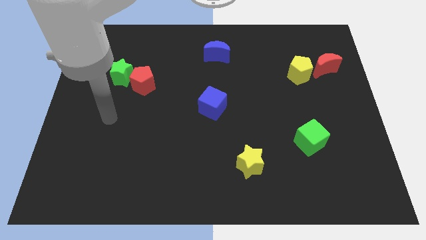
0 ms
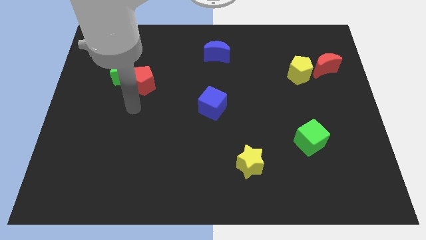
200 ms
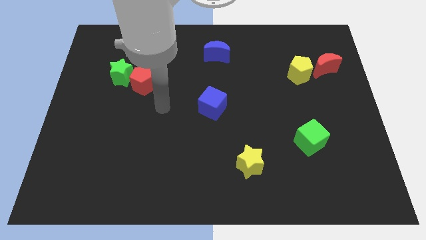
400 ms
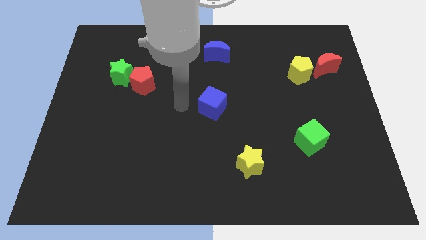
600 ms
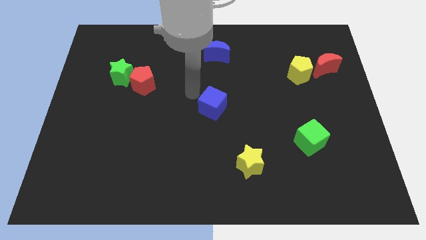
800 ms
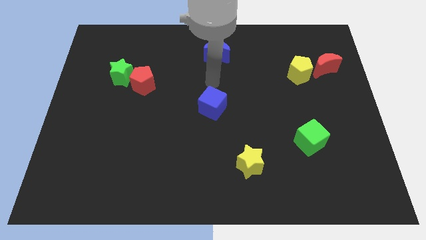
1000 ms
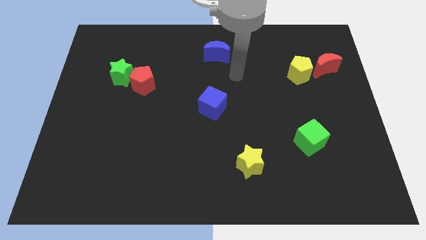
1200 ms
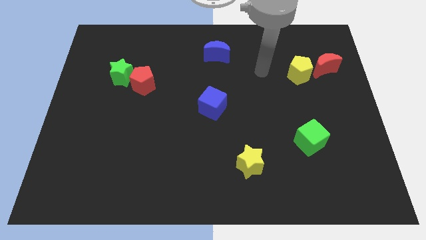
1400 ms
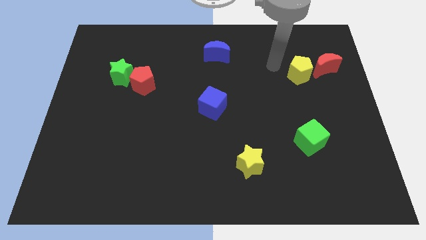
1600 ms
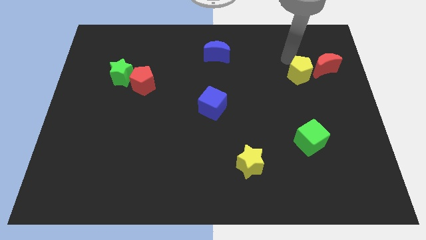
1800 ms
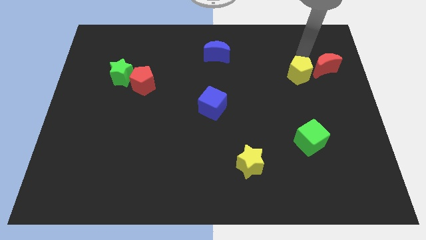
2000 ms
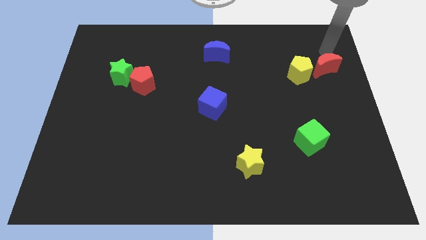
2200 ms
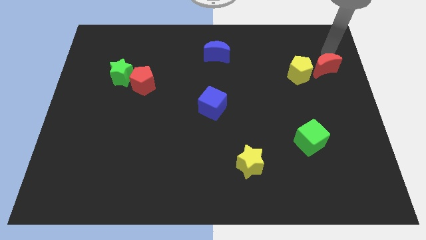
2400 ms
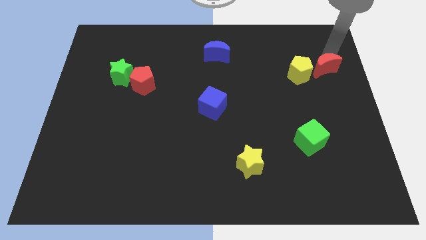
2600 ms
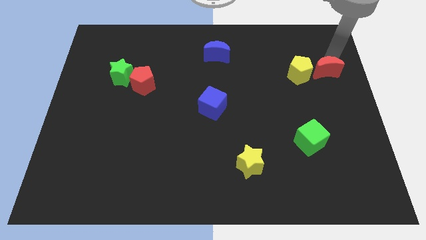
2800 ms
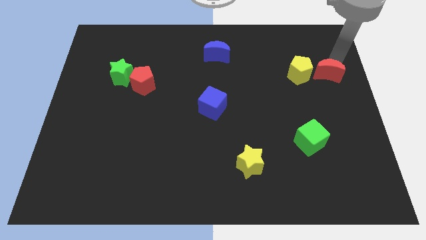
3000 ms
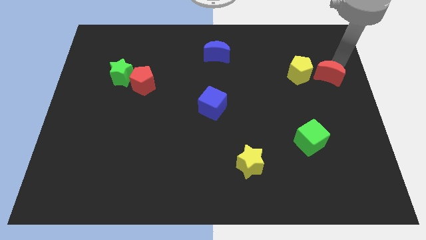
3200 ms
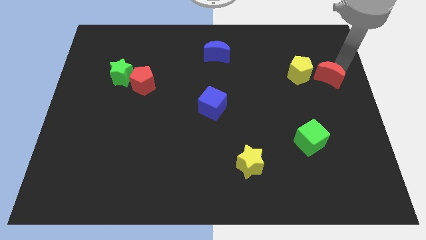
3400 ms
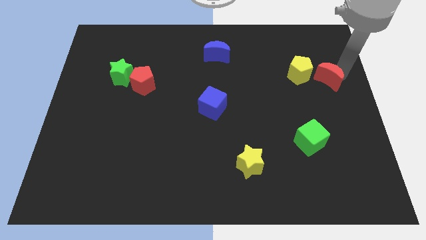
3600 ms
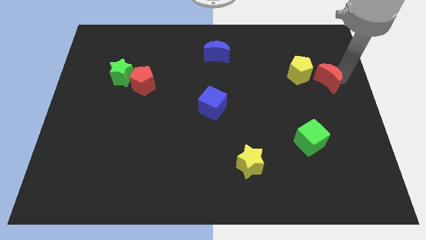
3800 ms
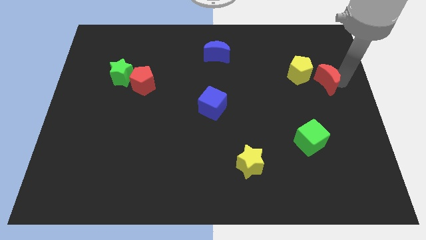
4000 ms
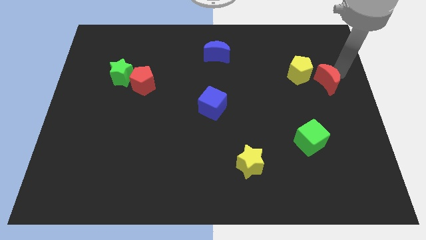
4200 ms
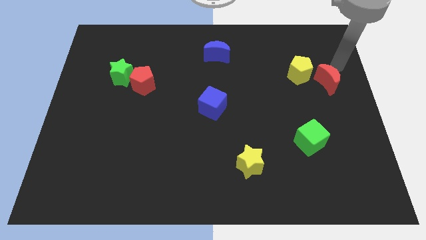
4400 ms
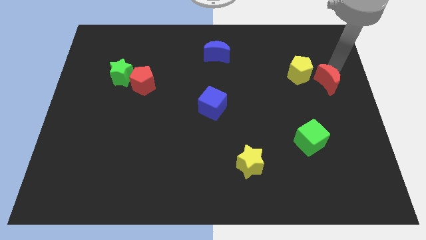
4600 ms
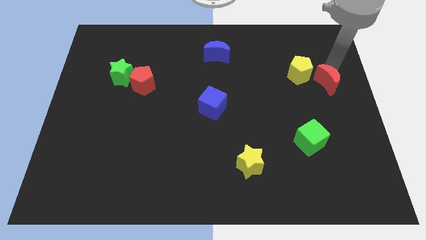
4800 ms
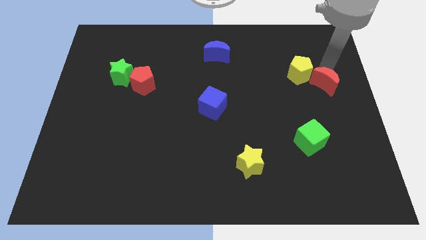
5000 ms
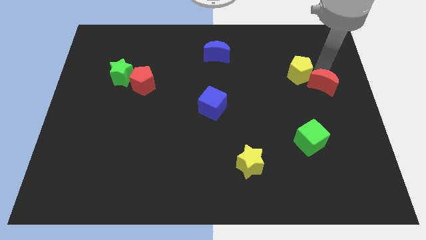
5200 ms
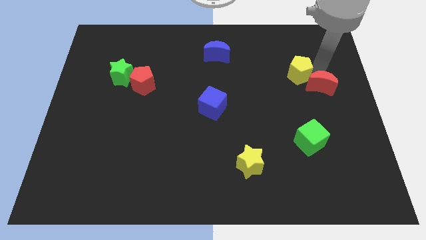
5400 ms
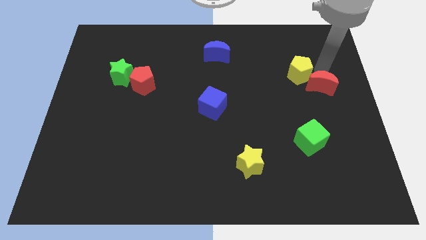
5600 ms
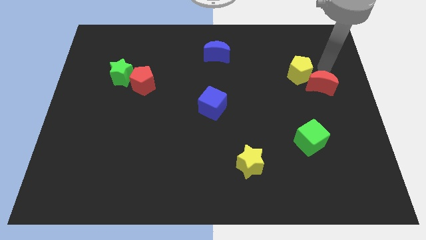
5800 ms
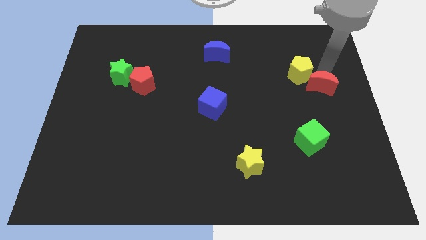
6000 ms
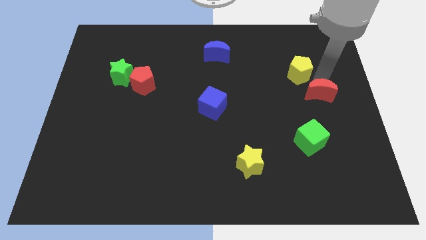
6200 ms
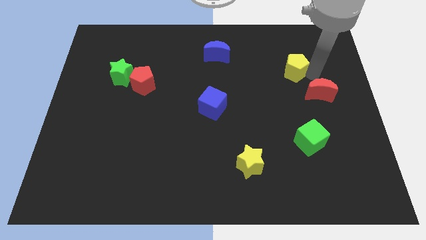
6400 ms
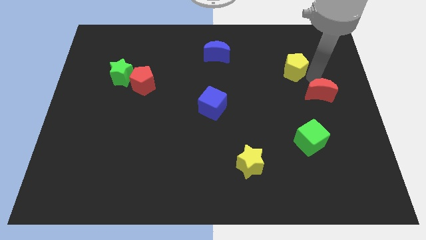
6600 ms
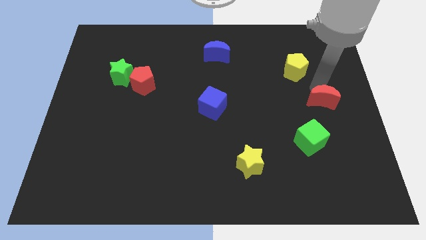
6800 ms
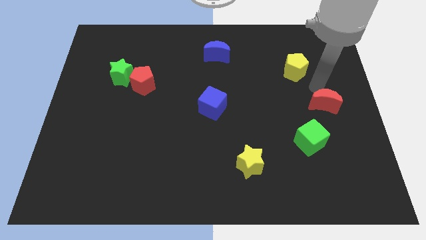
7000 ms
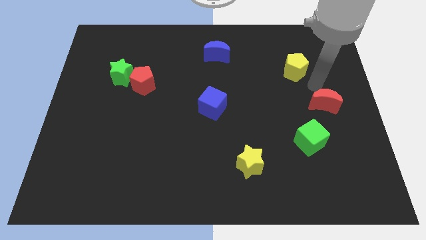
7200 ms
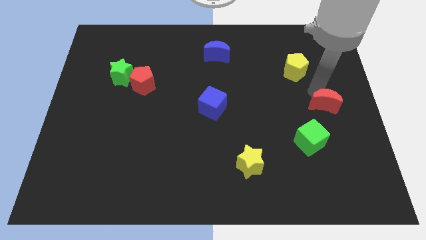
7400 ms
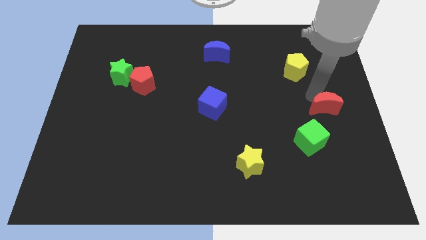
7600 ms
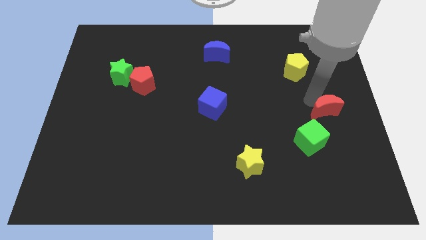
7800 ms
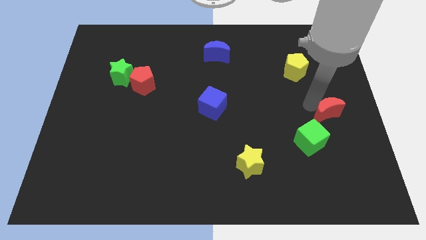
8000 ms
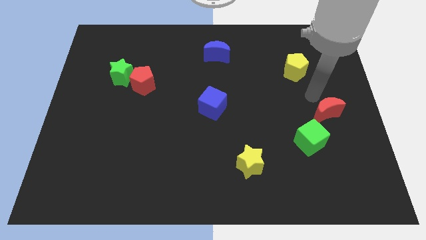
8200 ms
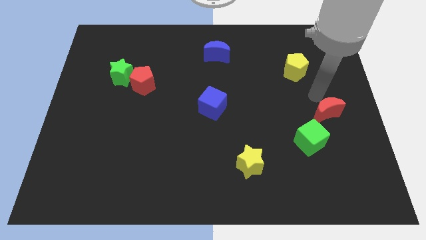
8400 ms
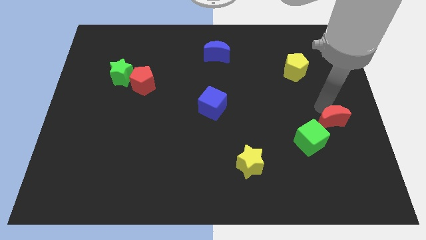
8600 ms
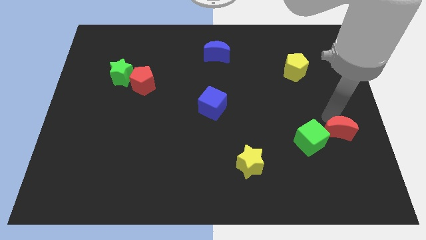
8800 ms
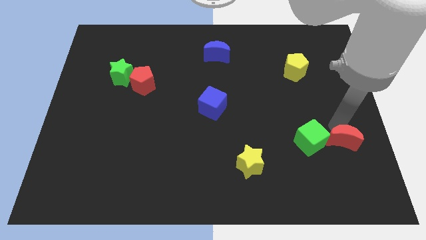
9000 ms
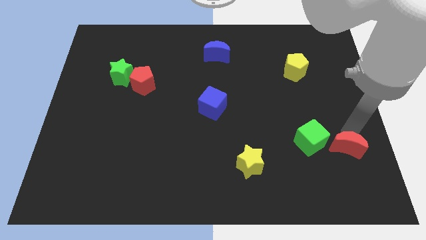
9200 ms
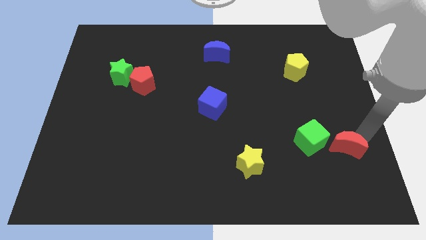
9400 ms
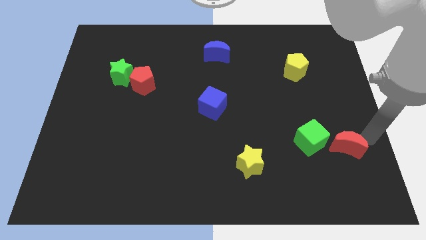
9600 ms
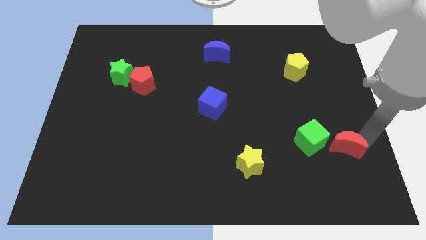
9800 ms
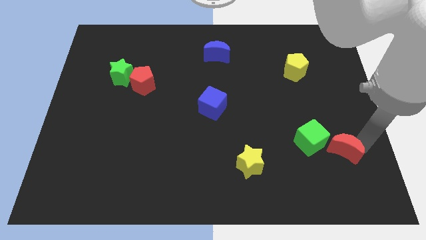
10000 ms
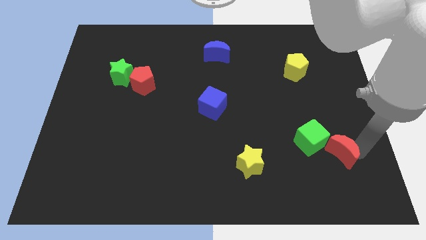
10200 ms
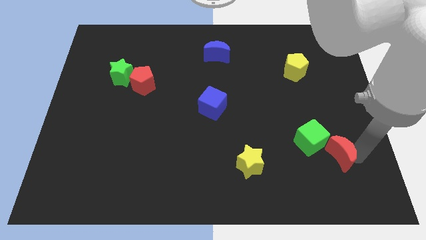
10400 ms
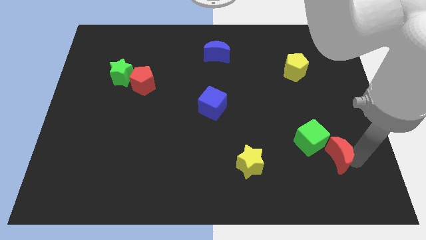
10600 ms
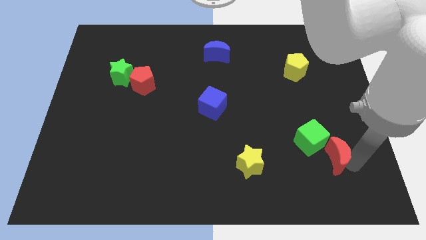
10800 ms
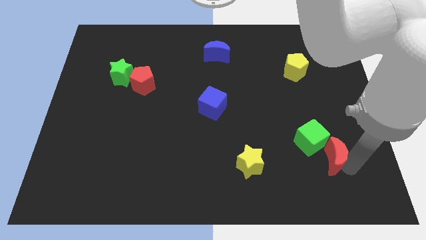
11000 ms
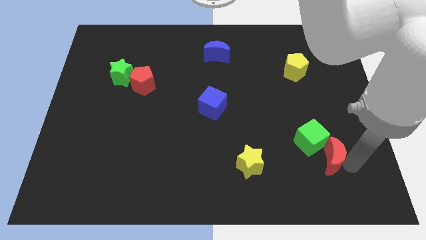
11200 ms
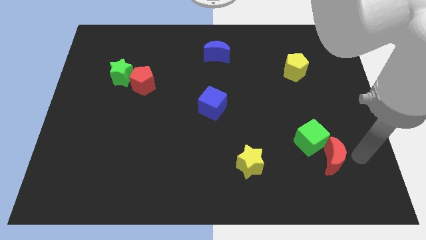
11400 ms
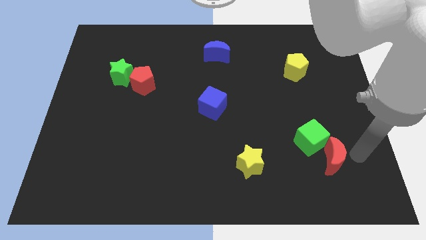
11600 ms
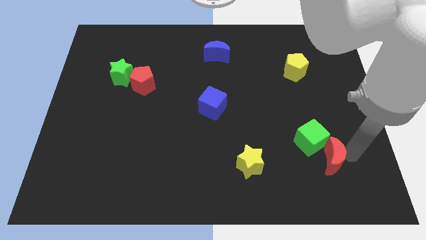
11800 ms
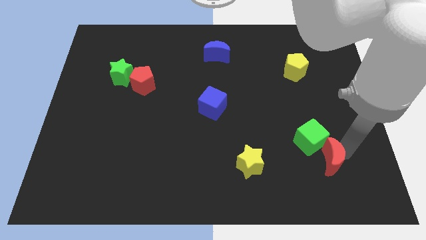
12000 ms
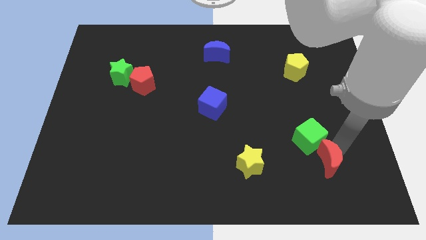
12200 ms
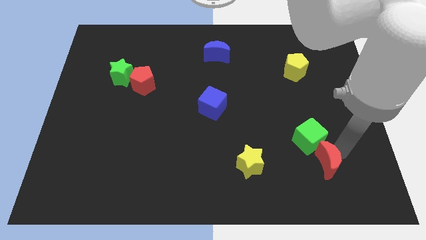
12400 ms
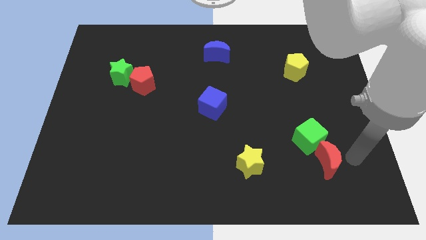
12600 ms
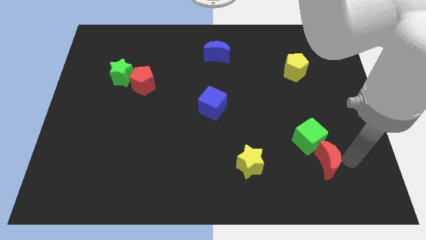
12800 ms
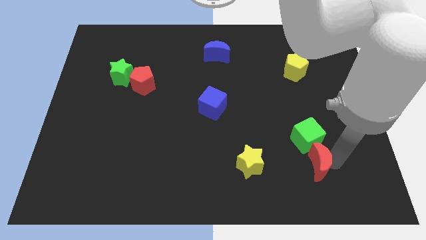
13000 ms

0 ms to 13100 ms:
put the red moon to the right side of the yellow star

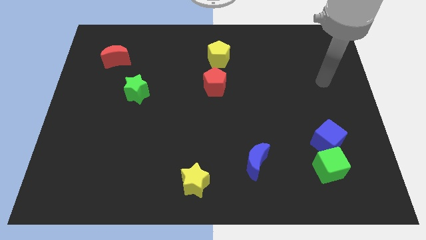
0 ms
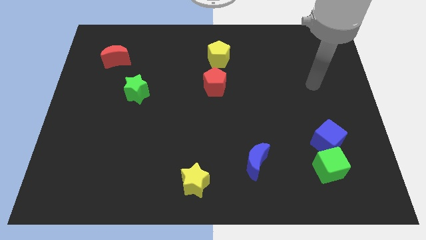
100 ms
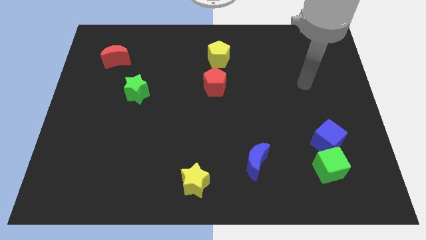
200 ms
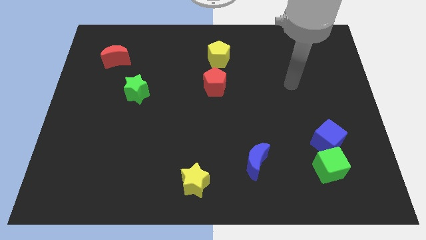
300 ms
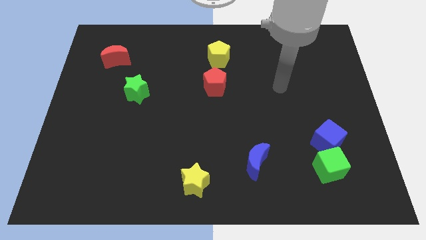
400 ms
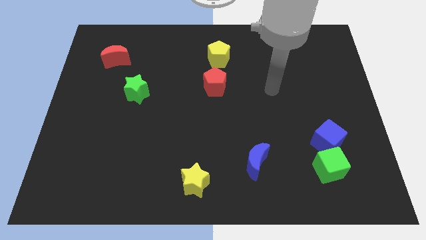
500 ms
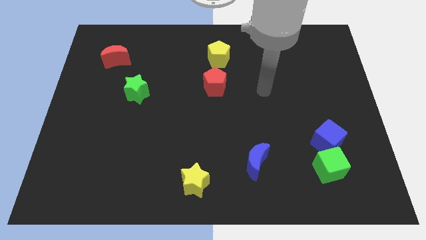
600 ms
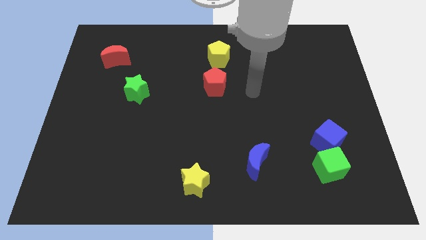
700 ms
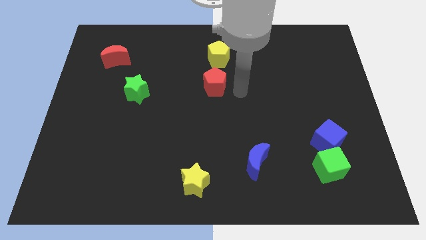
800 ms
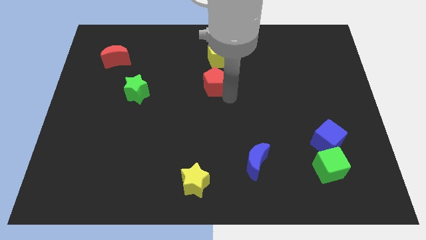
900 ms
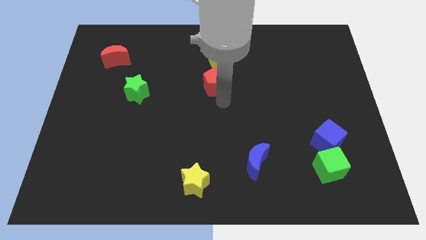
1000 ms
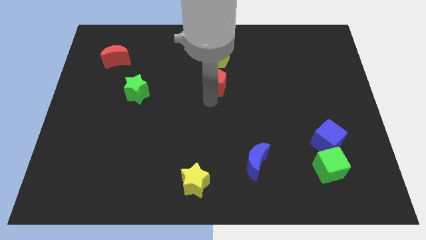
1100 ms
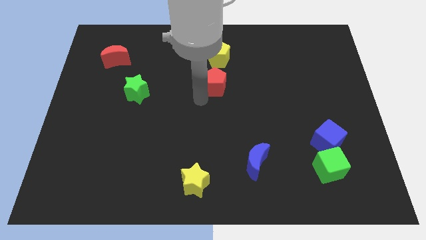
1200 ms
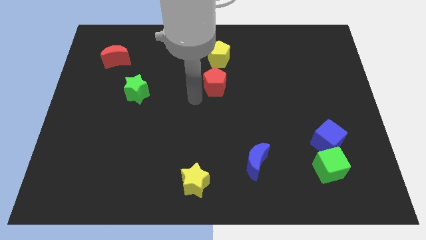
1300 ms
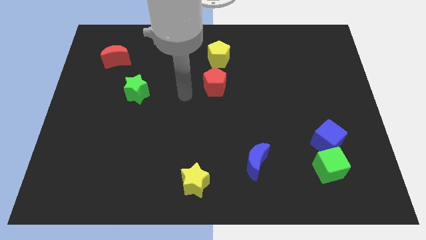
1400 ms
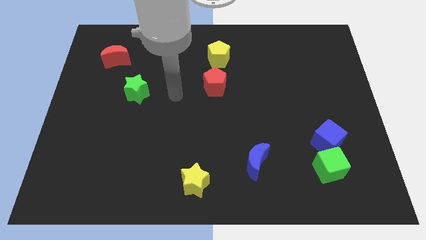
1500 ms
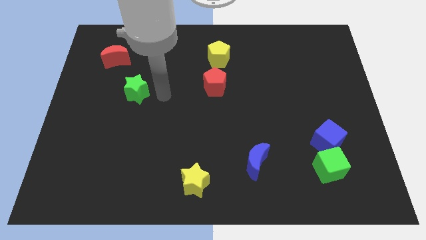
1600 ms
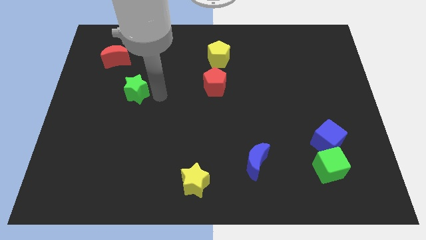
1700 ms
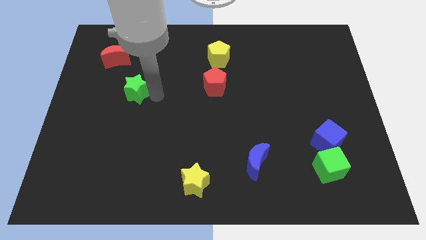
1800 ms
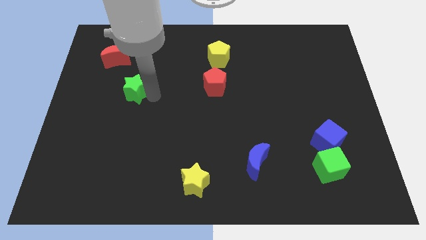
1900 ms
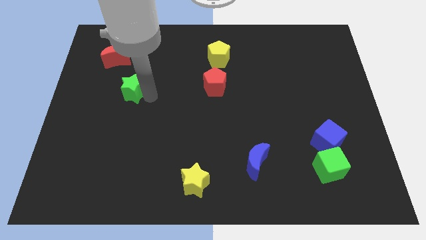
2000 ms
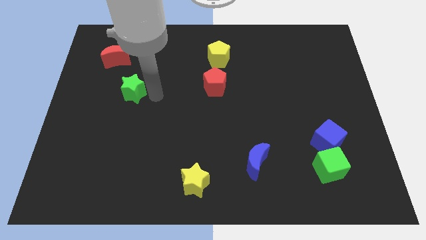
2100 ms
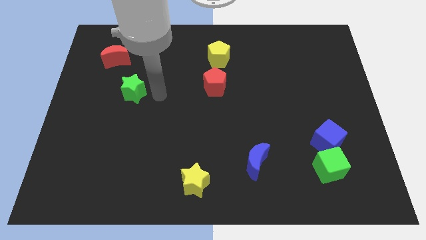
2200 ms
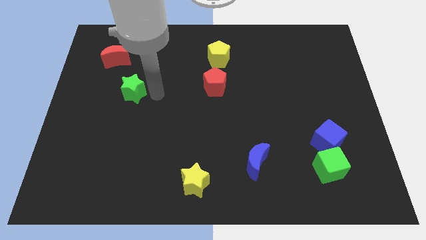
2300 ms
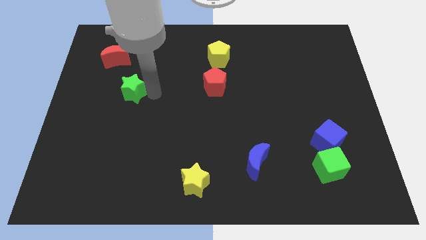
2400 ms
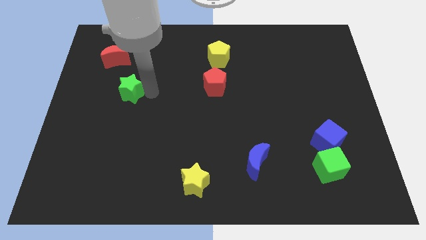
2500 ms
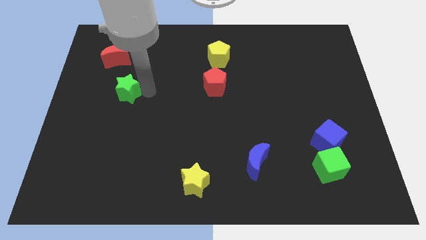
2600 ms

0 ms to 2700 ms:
push the green star to the bottom of the red moon
